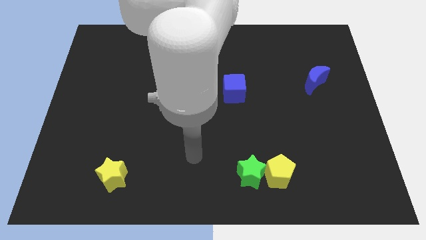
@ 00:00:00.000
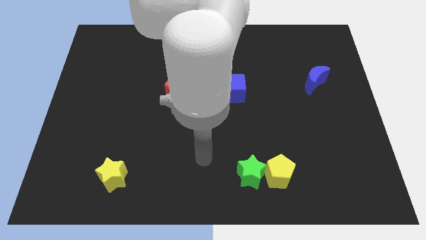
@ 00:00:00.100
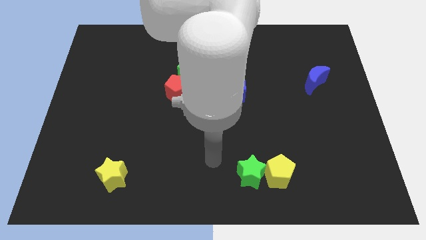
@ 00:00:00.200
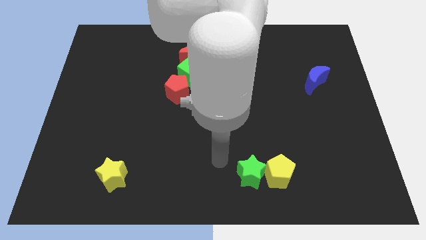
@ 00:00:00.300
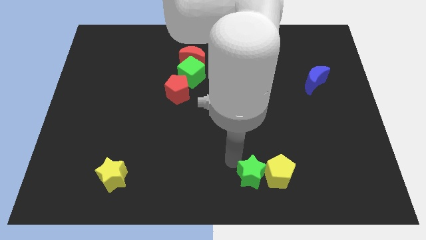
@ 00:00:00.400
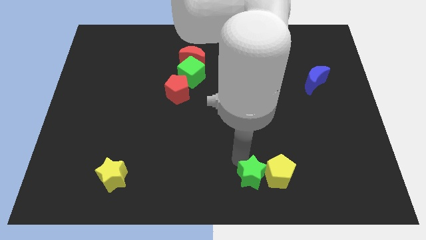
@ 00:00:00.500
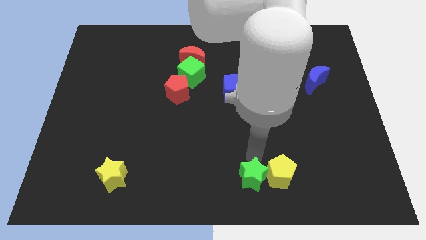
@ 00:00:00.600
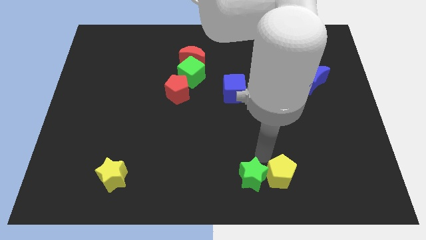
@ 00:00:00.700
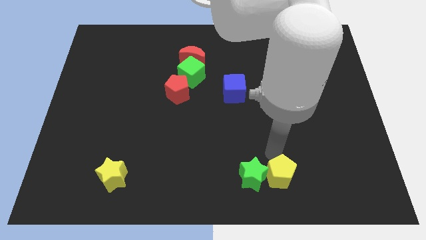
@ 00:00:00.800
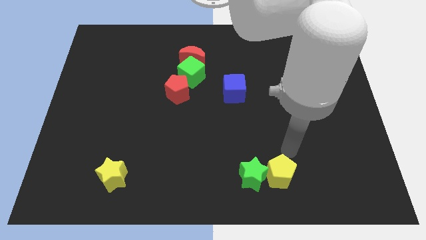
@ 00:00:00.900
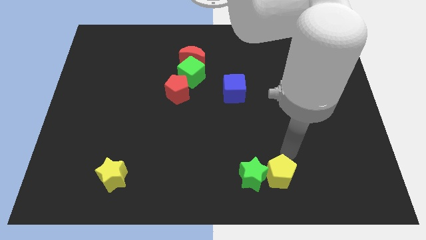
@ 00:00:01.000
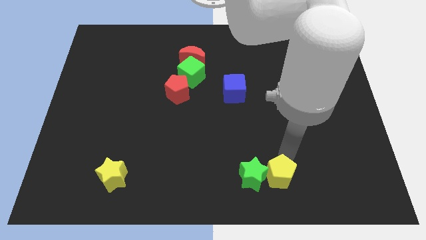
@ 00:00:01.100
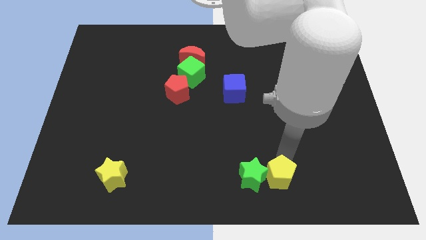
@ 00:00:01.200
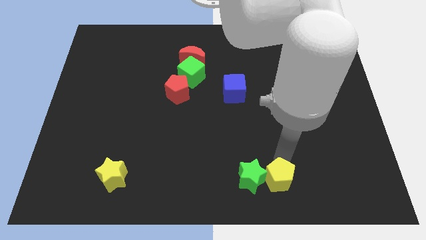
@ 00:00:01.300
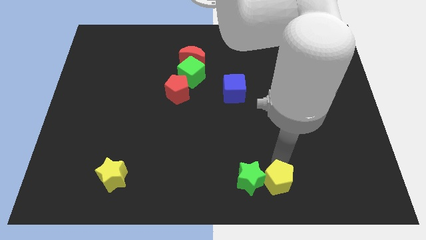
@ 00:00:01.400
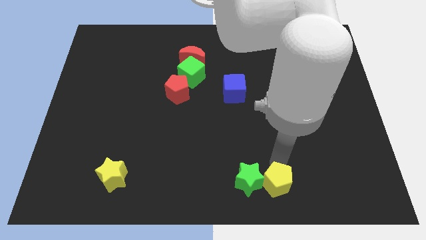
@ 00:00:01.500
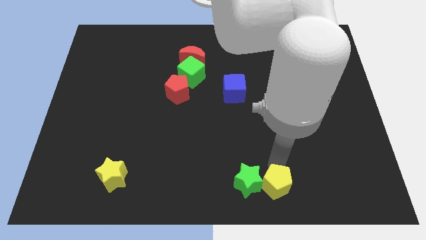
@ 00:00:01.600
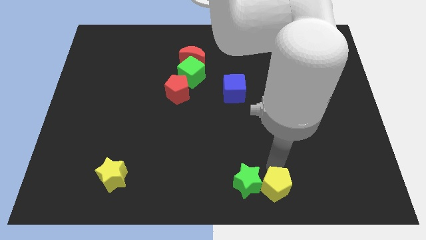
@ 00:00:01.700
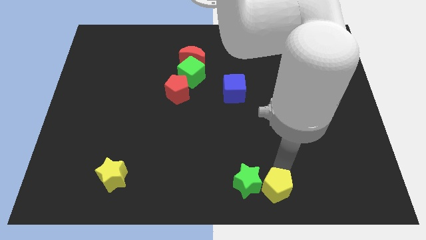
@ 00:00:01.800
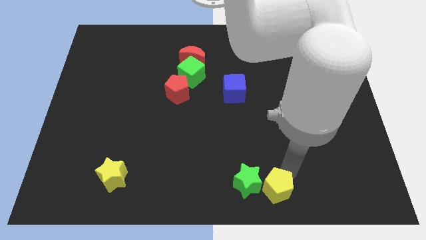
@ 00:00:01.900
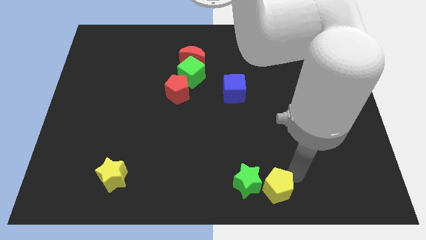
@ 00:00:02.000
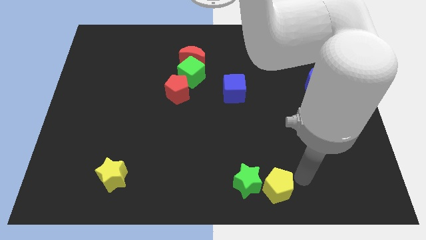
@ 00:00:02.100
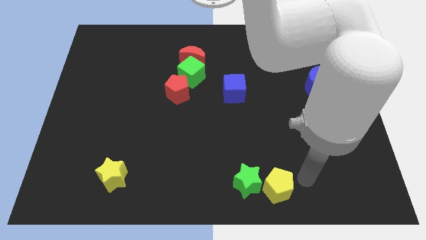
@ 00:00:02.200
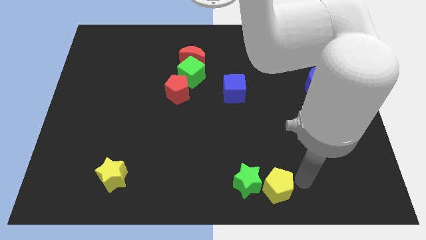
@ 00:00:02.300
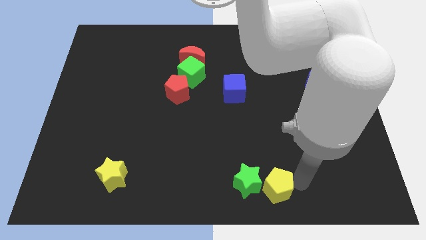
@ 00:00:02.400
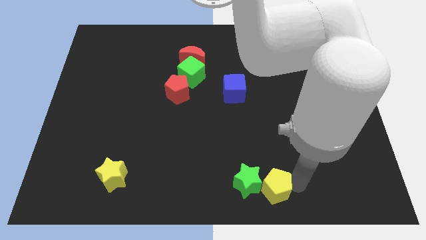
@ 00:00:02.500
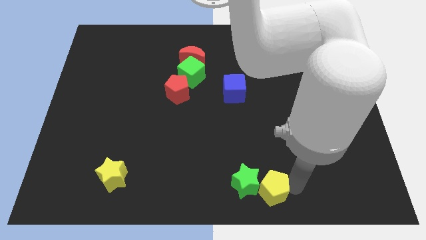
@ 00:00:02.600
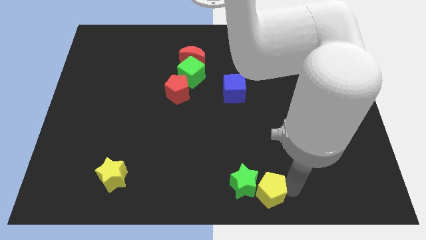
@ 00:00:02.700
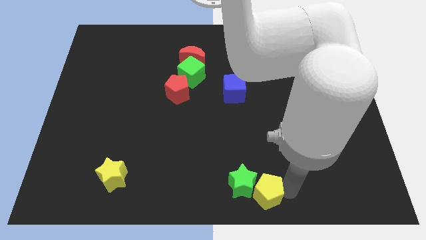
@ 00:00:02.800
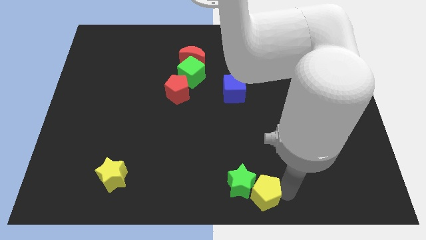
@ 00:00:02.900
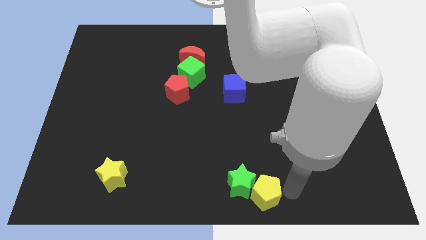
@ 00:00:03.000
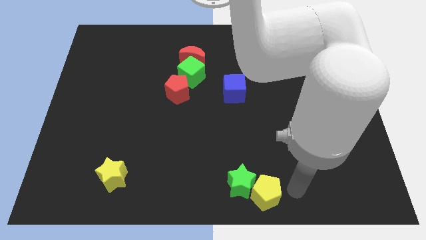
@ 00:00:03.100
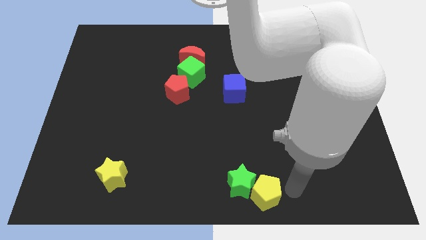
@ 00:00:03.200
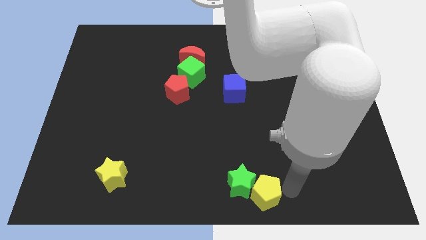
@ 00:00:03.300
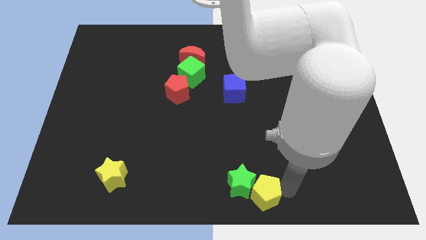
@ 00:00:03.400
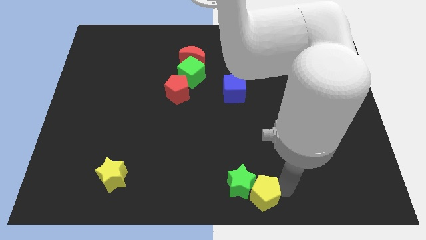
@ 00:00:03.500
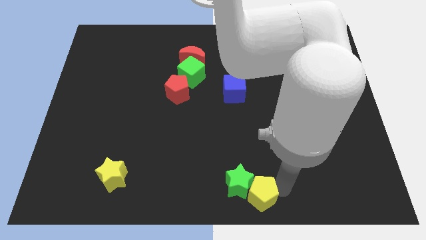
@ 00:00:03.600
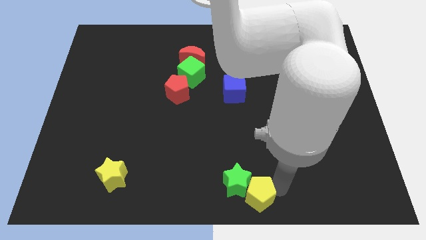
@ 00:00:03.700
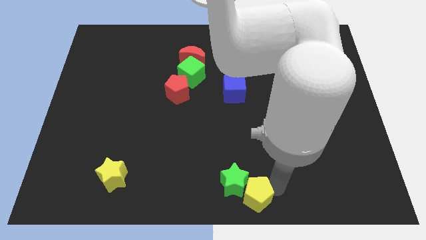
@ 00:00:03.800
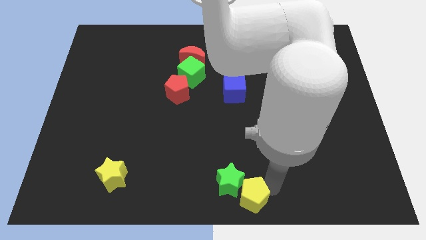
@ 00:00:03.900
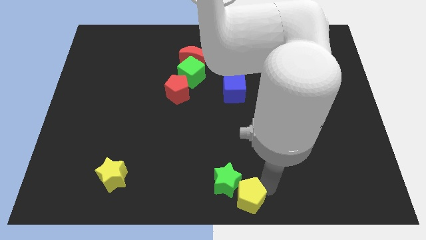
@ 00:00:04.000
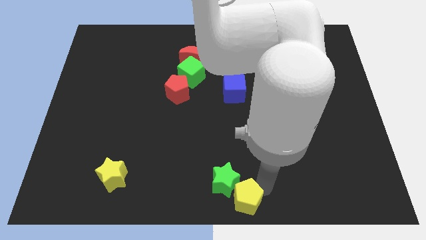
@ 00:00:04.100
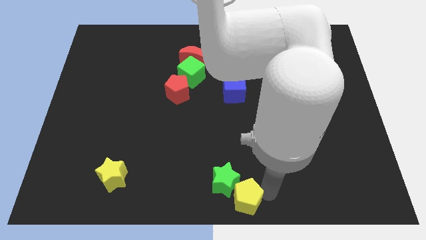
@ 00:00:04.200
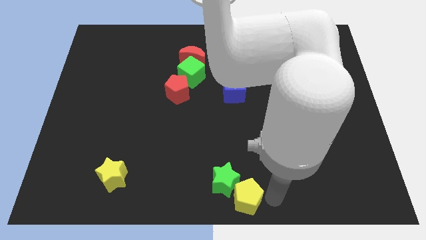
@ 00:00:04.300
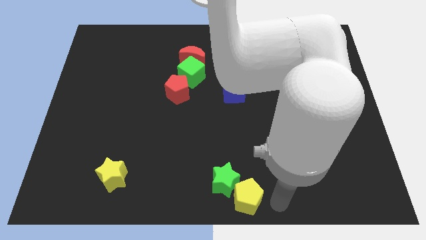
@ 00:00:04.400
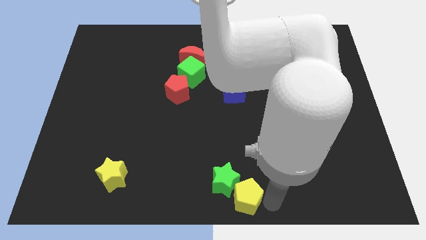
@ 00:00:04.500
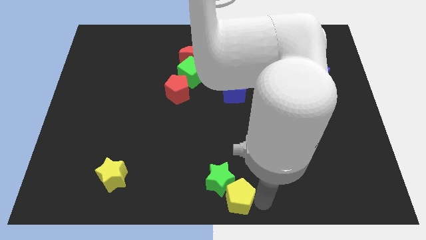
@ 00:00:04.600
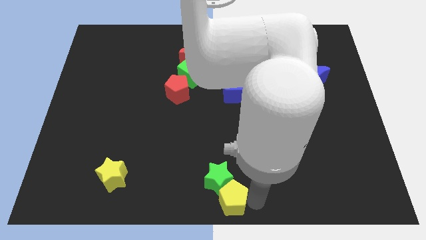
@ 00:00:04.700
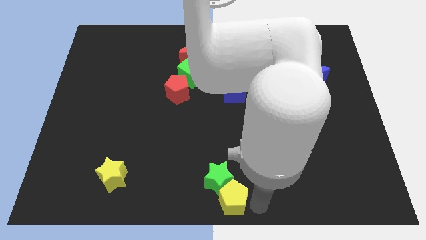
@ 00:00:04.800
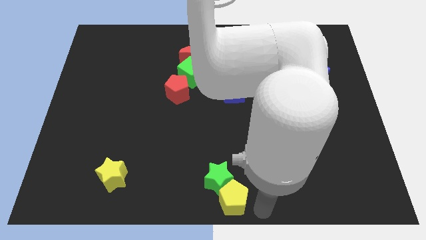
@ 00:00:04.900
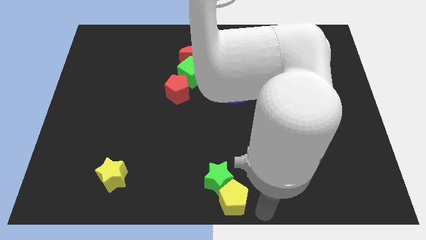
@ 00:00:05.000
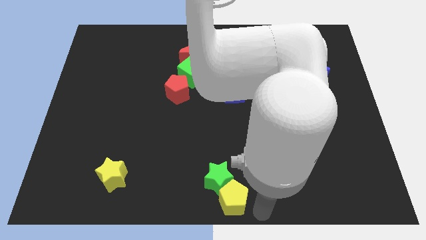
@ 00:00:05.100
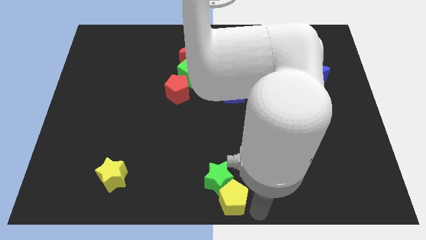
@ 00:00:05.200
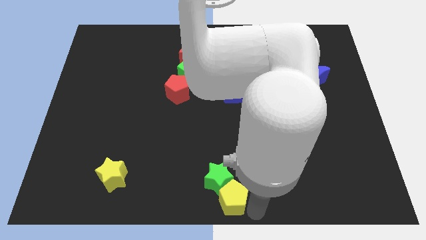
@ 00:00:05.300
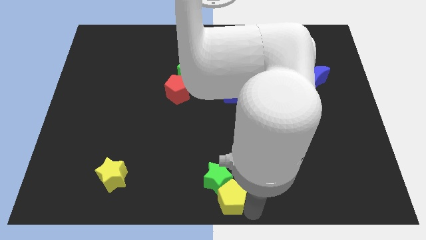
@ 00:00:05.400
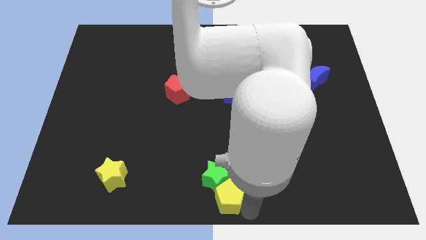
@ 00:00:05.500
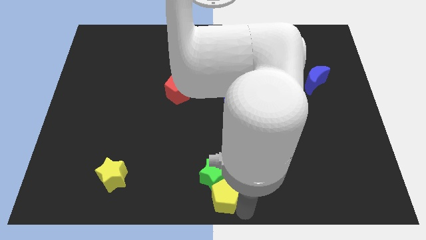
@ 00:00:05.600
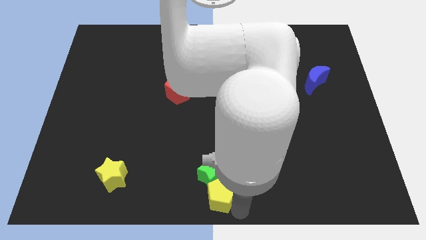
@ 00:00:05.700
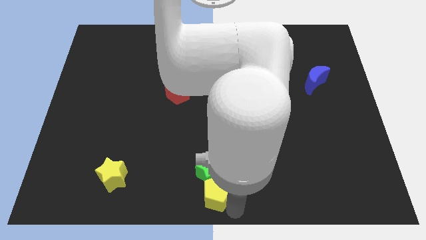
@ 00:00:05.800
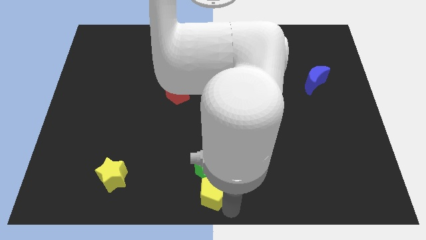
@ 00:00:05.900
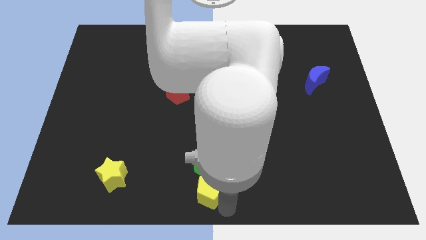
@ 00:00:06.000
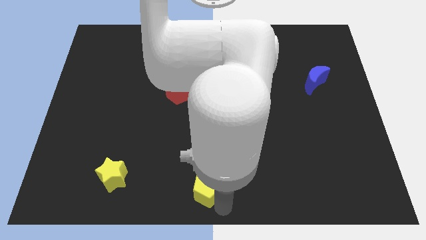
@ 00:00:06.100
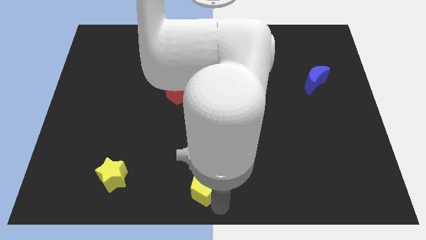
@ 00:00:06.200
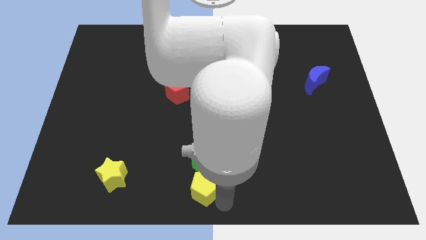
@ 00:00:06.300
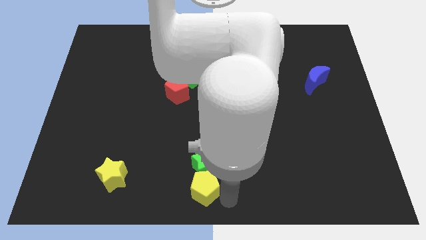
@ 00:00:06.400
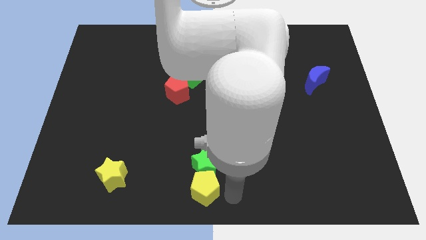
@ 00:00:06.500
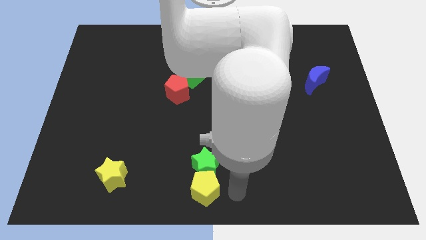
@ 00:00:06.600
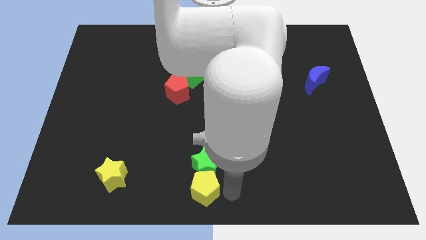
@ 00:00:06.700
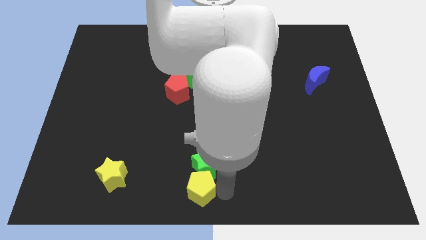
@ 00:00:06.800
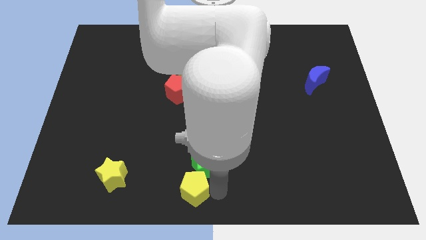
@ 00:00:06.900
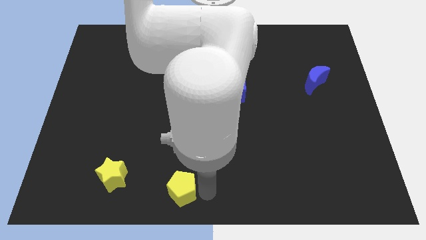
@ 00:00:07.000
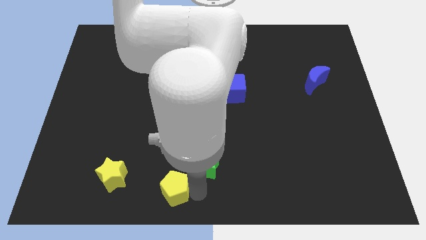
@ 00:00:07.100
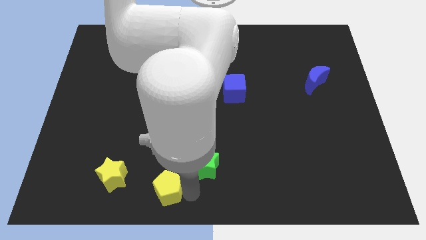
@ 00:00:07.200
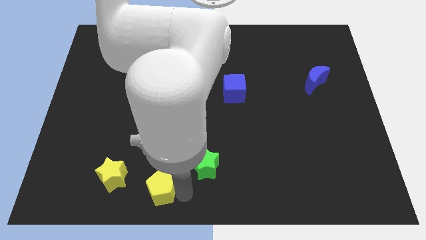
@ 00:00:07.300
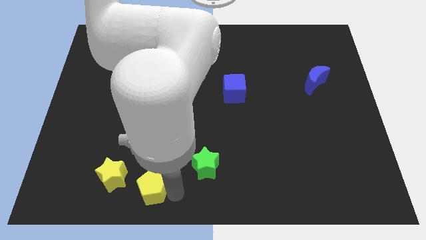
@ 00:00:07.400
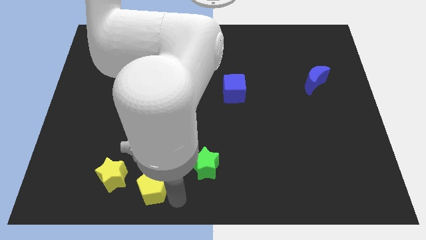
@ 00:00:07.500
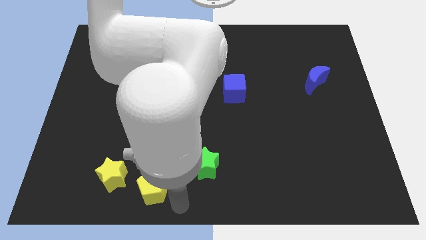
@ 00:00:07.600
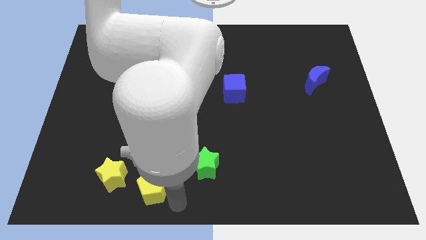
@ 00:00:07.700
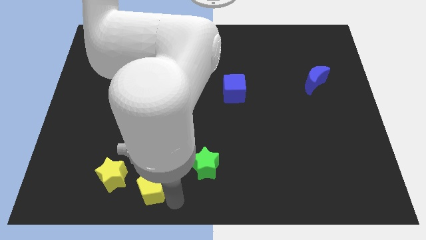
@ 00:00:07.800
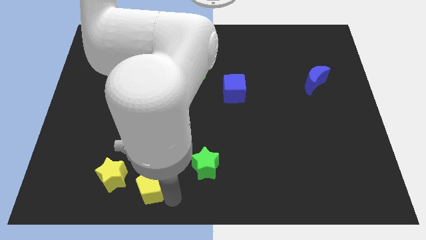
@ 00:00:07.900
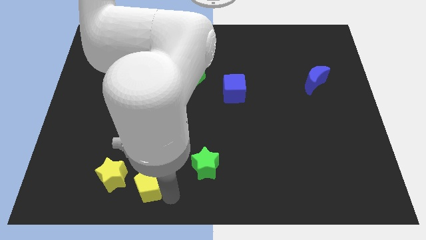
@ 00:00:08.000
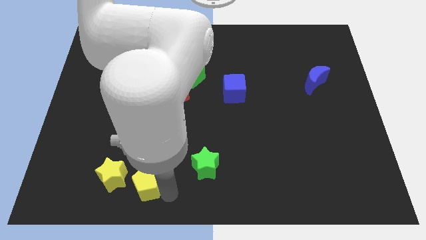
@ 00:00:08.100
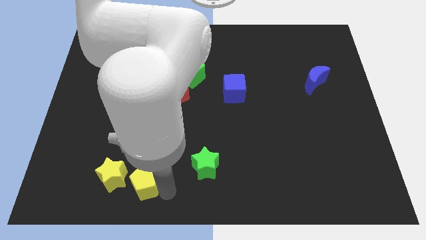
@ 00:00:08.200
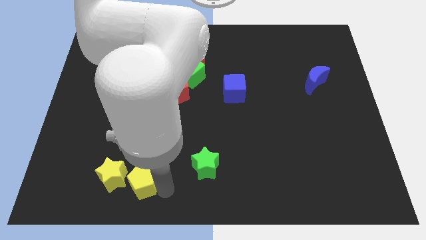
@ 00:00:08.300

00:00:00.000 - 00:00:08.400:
slide the yellow pentagon to the yellow star
